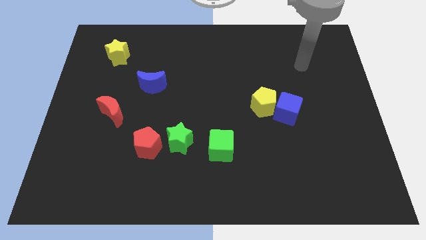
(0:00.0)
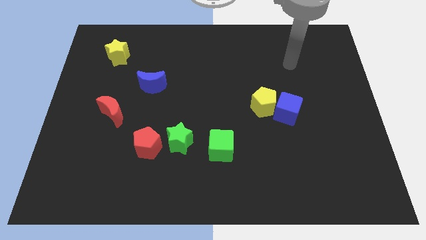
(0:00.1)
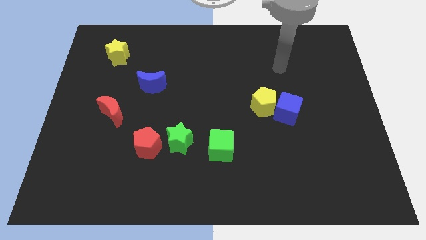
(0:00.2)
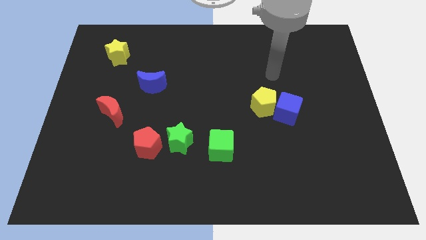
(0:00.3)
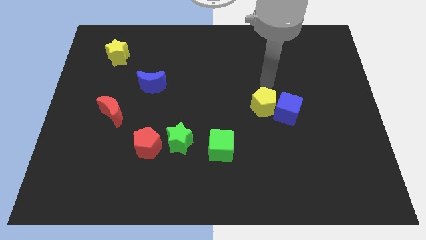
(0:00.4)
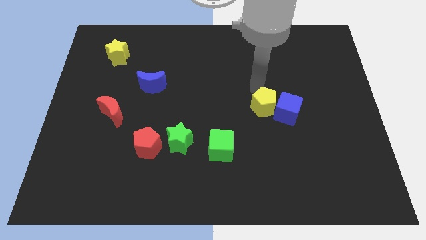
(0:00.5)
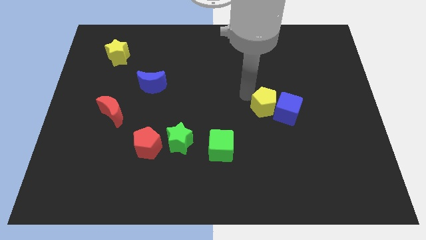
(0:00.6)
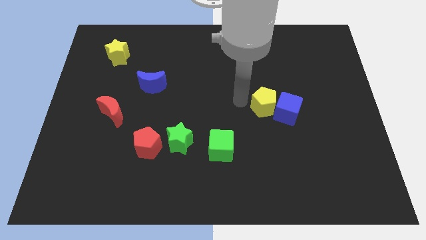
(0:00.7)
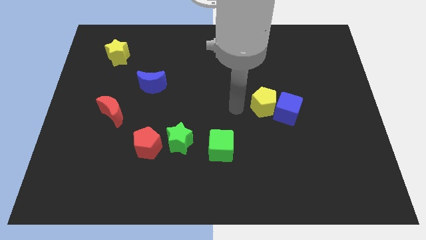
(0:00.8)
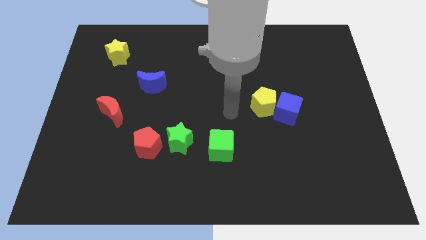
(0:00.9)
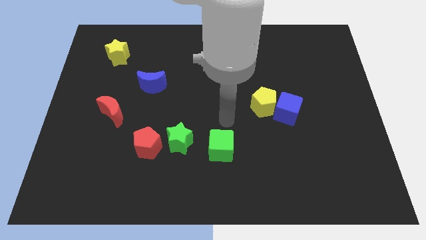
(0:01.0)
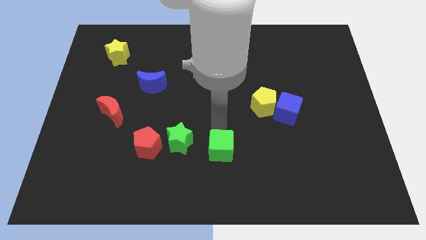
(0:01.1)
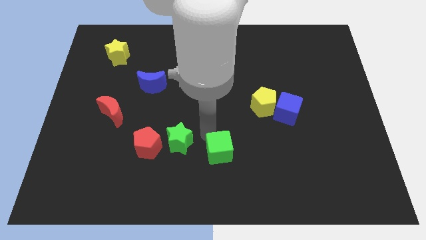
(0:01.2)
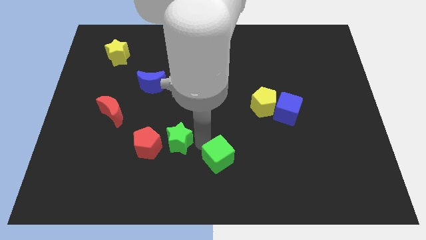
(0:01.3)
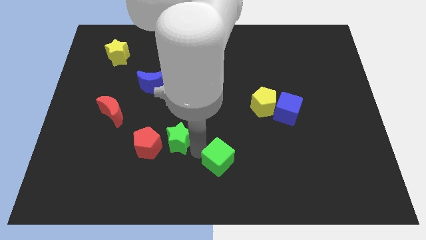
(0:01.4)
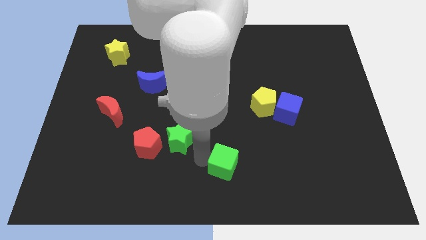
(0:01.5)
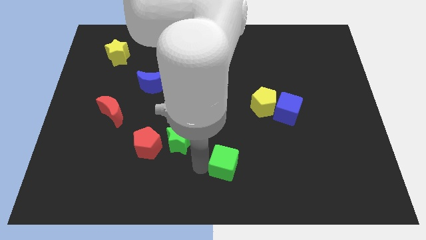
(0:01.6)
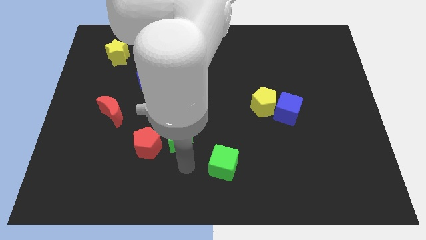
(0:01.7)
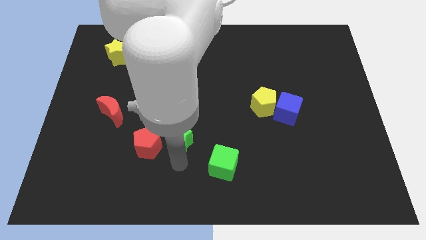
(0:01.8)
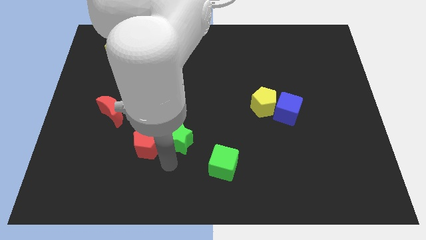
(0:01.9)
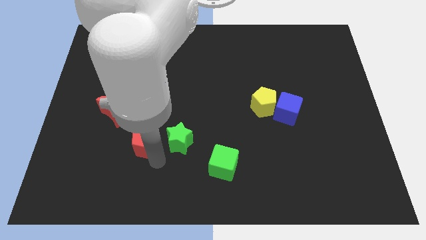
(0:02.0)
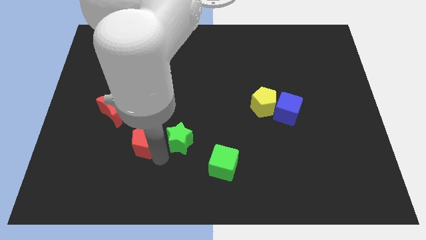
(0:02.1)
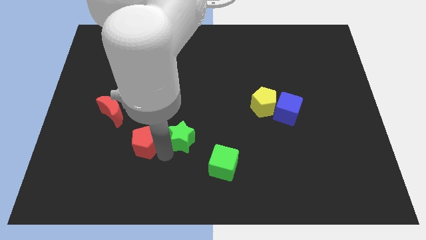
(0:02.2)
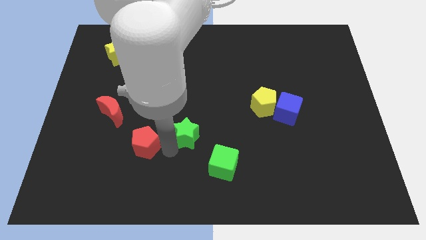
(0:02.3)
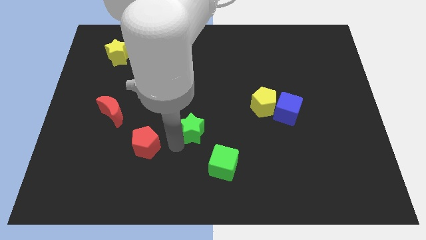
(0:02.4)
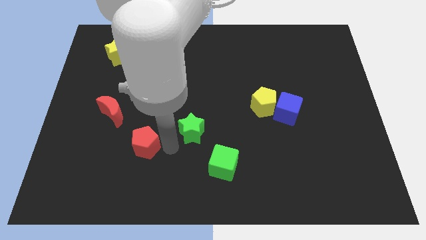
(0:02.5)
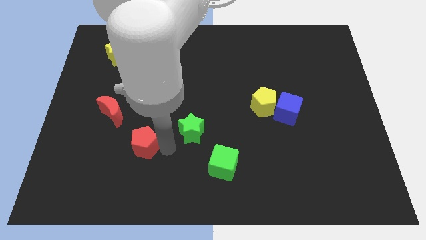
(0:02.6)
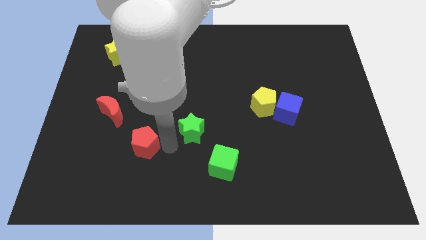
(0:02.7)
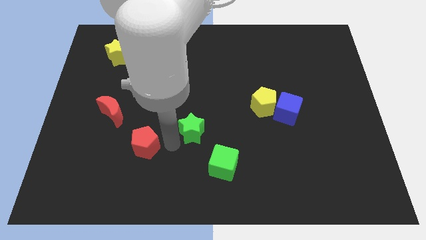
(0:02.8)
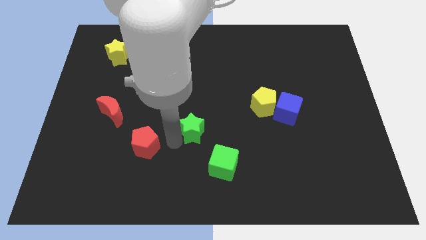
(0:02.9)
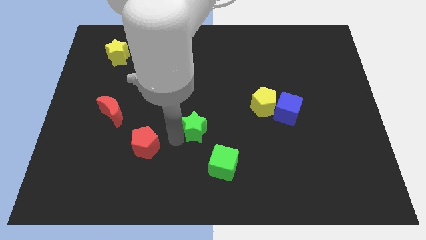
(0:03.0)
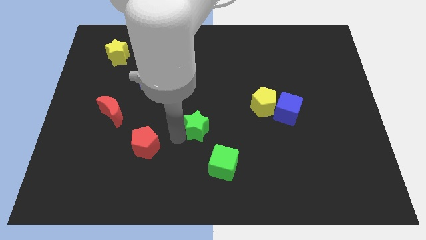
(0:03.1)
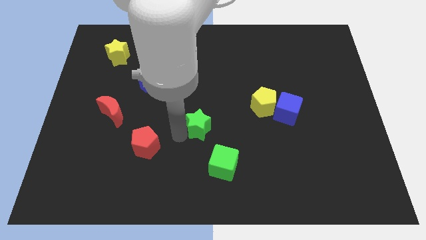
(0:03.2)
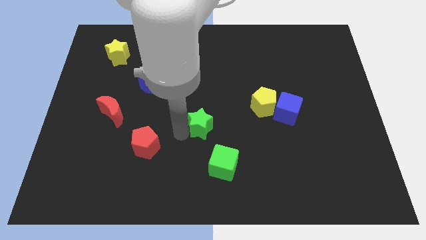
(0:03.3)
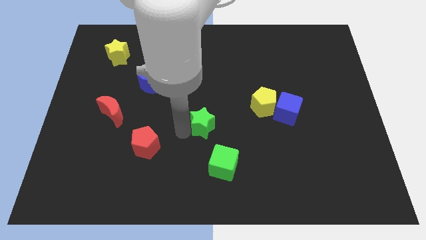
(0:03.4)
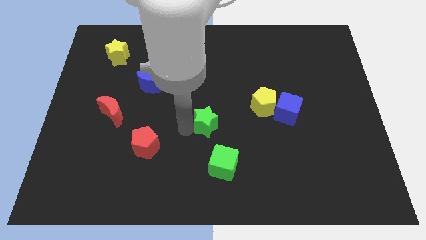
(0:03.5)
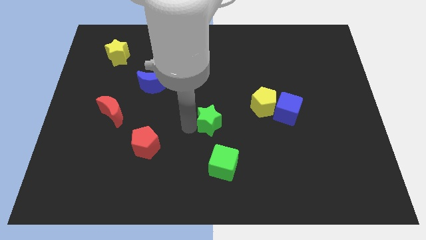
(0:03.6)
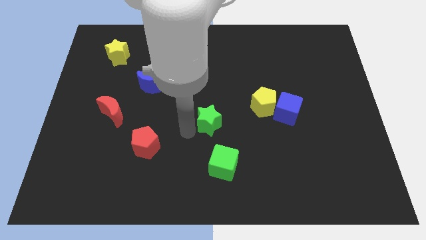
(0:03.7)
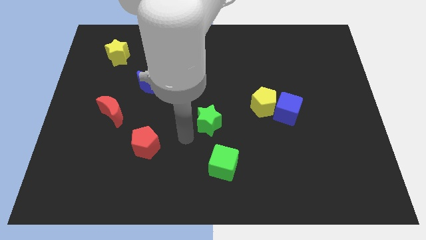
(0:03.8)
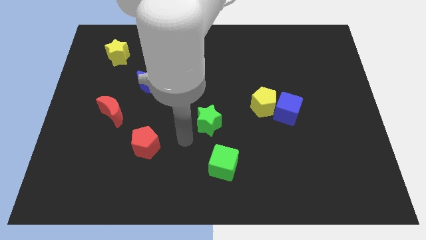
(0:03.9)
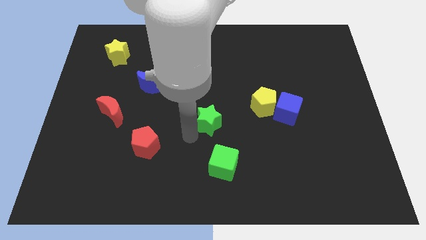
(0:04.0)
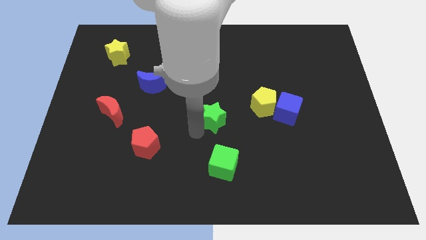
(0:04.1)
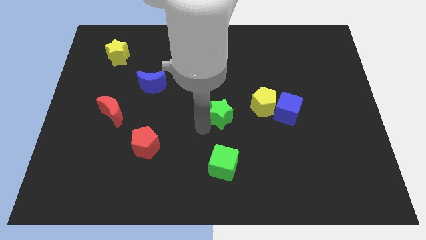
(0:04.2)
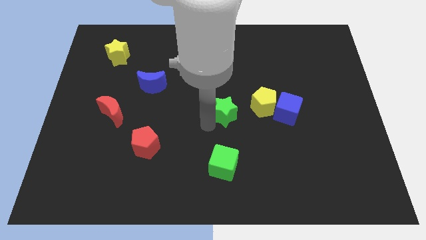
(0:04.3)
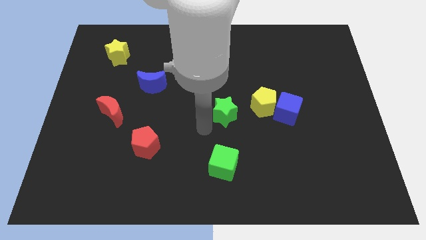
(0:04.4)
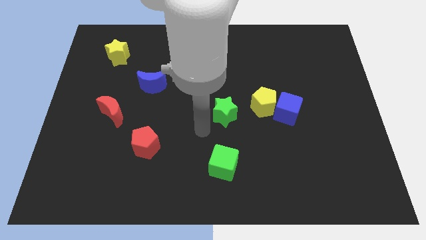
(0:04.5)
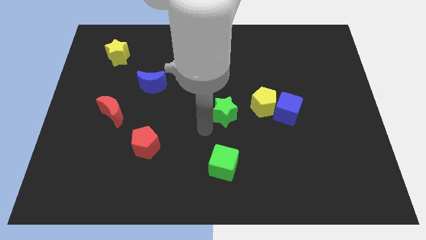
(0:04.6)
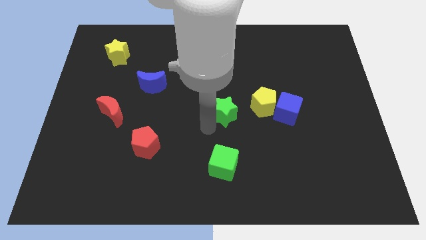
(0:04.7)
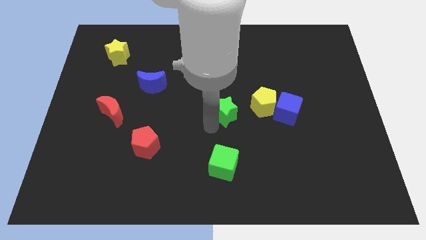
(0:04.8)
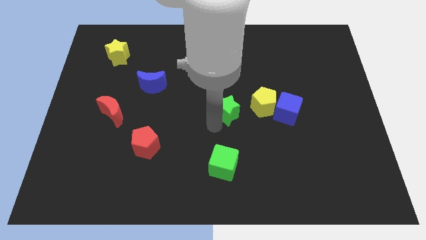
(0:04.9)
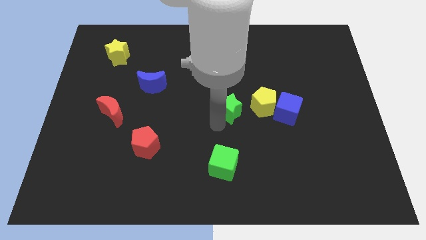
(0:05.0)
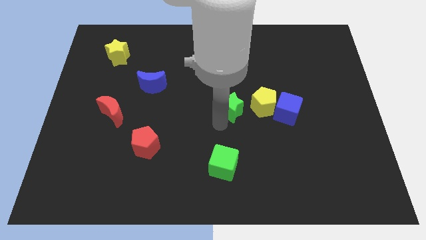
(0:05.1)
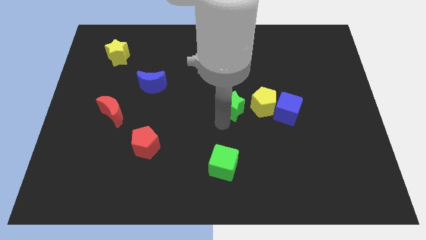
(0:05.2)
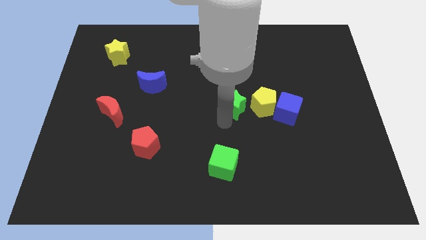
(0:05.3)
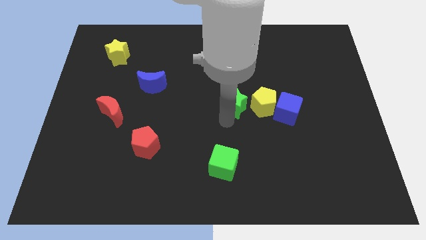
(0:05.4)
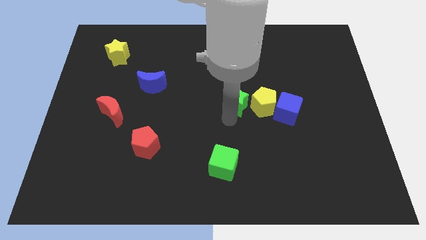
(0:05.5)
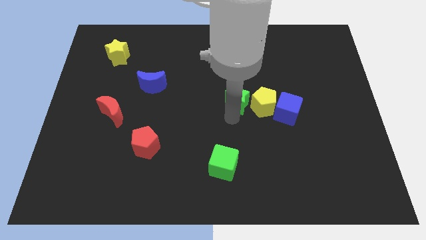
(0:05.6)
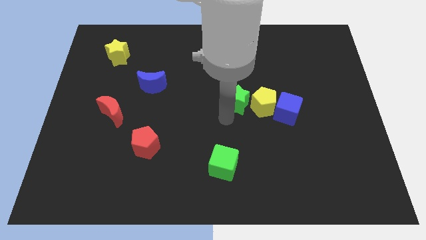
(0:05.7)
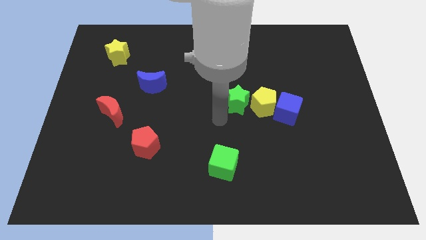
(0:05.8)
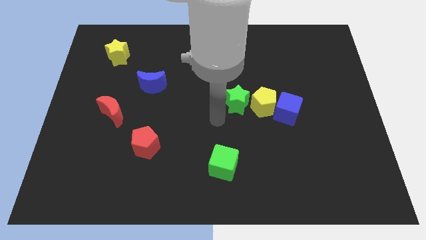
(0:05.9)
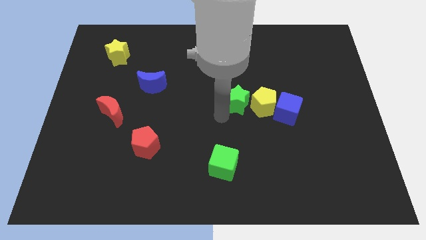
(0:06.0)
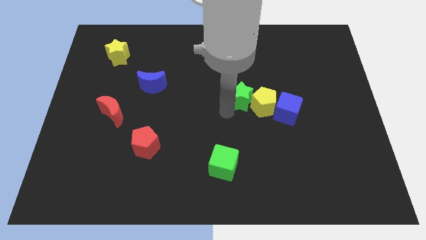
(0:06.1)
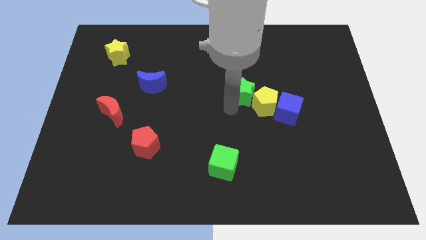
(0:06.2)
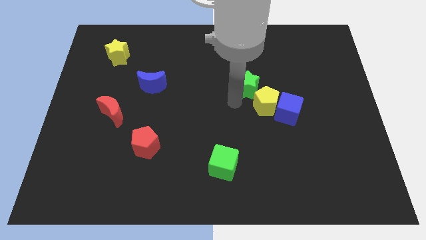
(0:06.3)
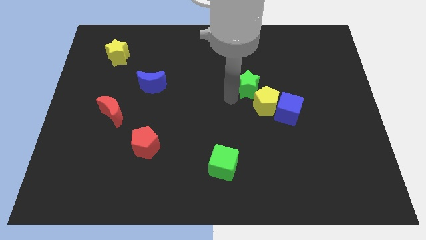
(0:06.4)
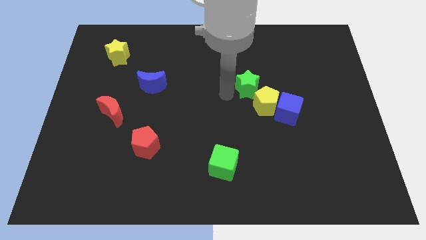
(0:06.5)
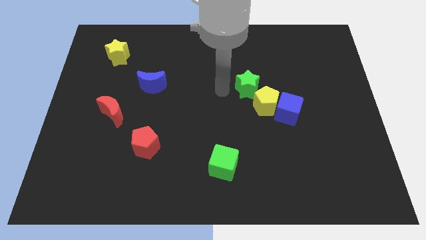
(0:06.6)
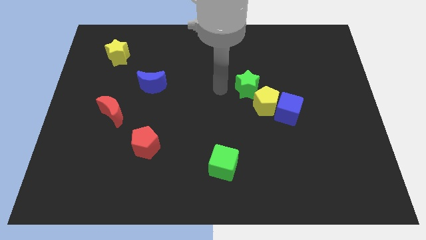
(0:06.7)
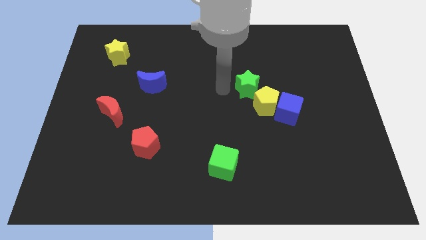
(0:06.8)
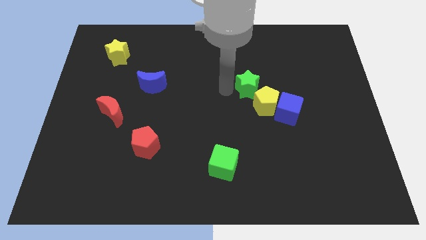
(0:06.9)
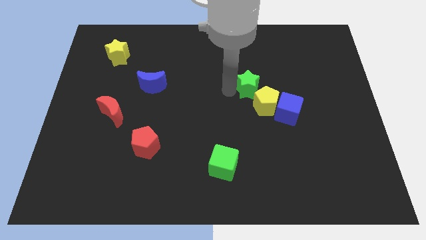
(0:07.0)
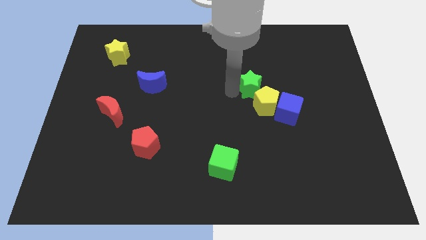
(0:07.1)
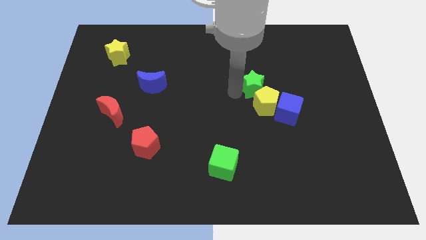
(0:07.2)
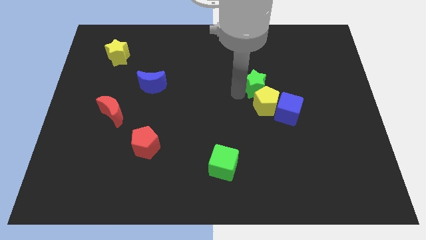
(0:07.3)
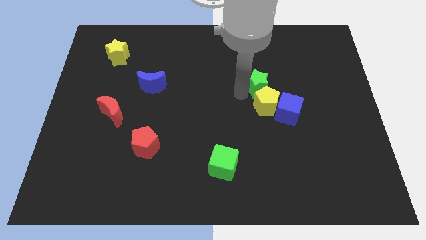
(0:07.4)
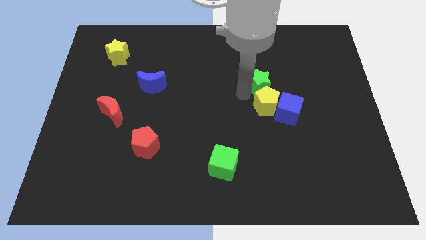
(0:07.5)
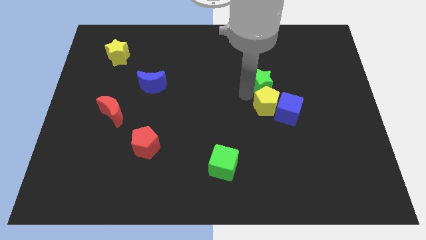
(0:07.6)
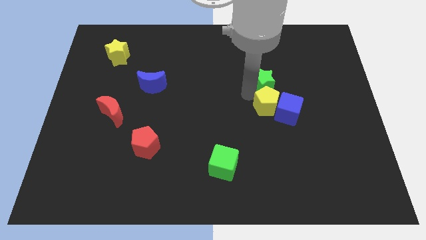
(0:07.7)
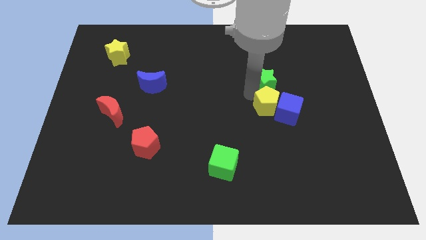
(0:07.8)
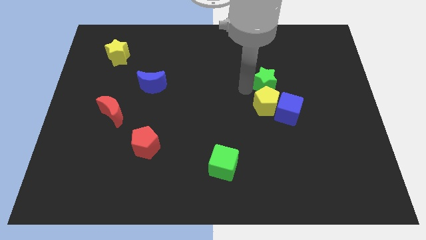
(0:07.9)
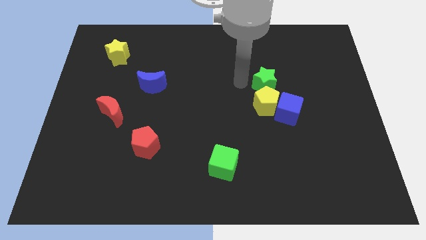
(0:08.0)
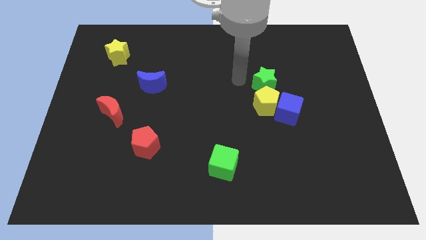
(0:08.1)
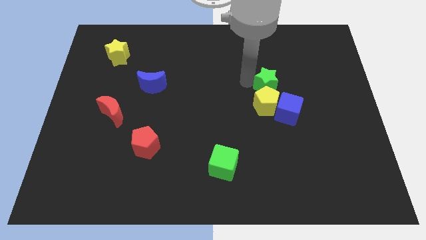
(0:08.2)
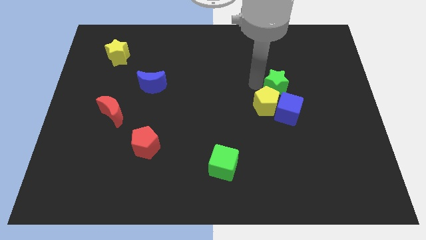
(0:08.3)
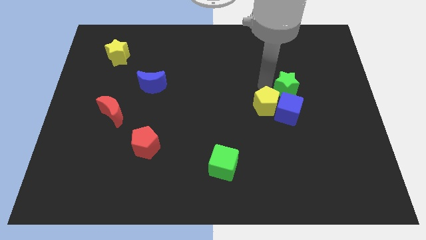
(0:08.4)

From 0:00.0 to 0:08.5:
put the green star diagonally up and to the right of the blue cube
